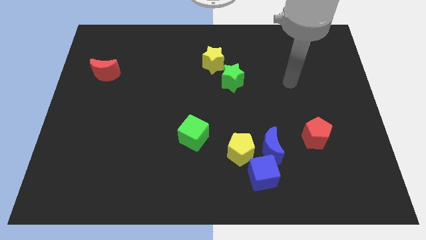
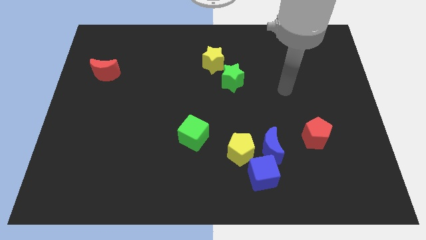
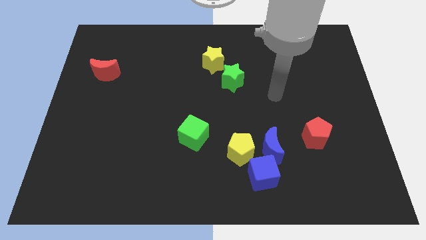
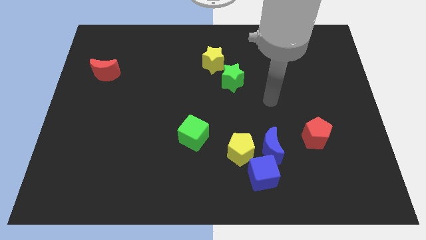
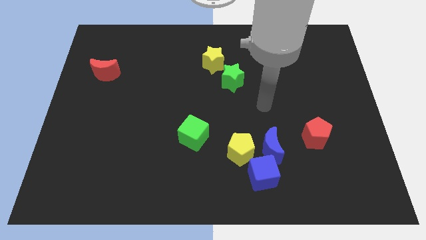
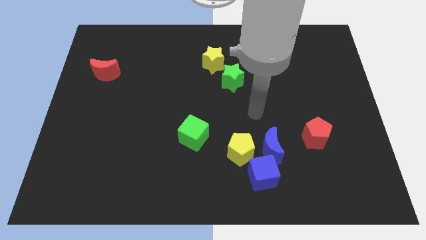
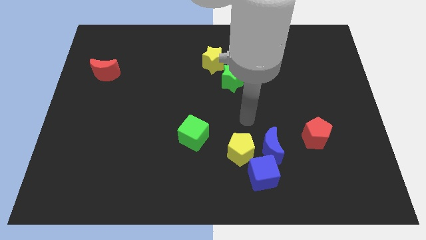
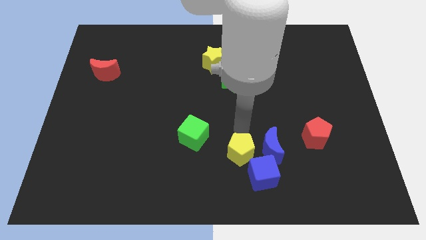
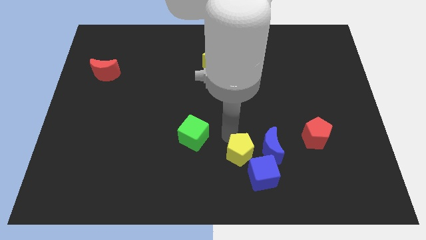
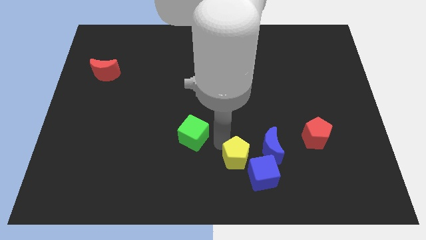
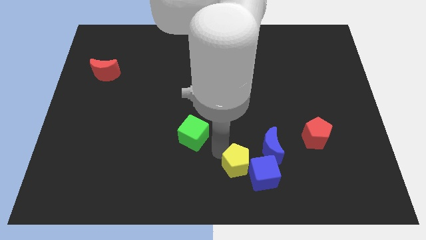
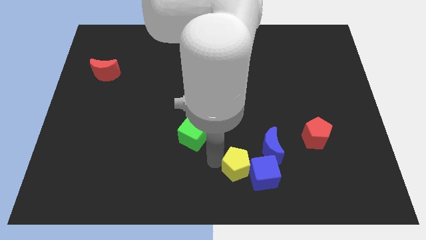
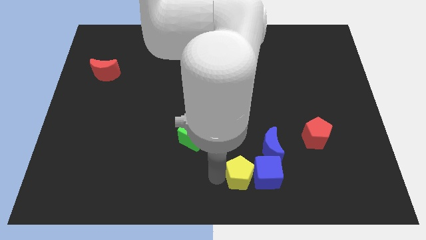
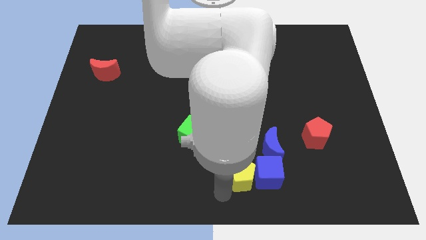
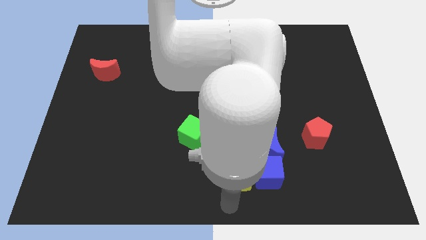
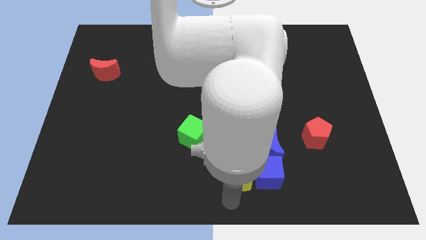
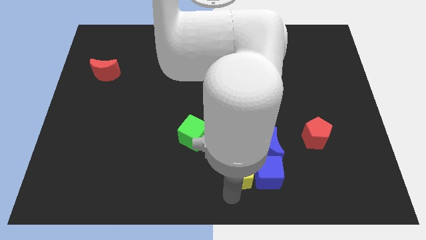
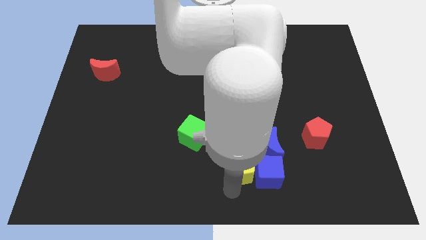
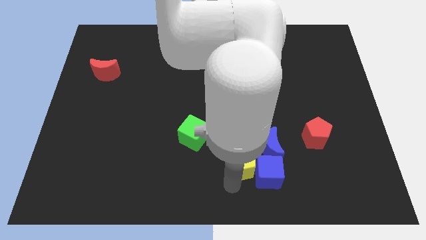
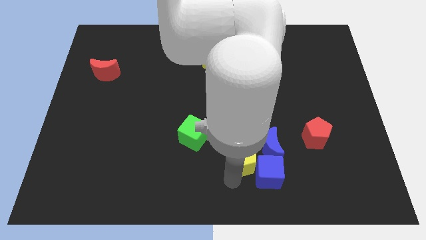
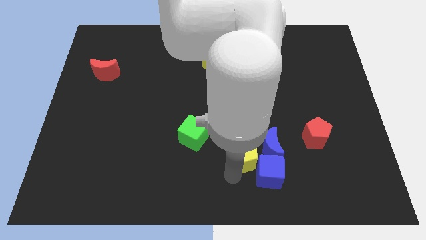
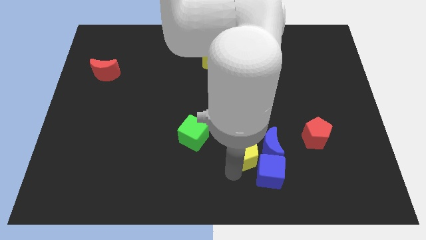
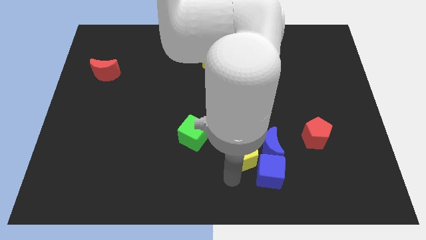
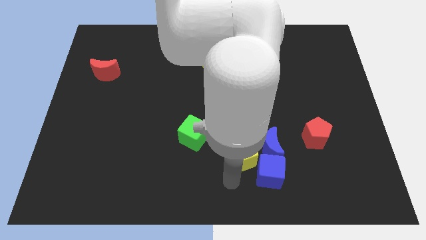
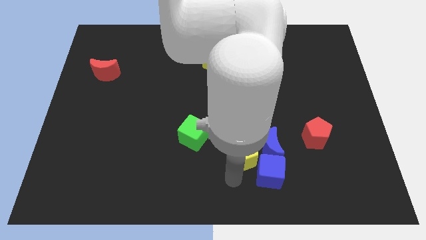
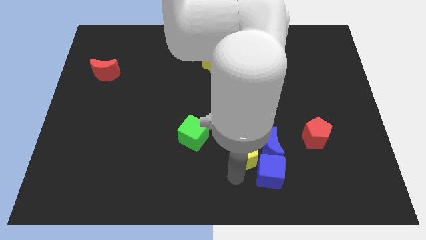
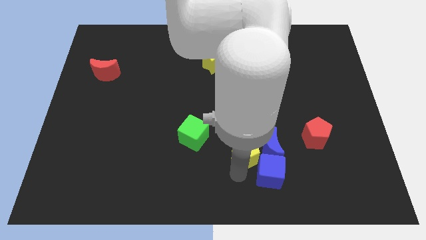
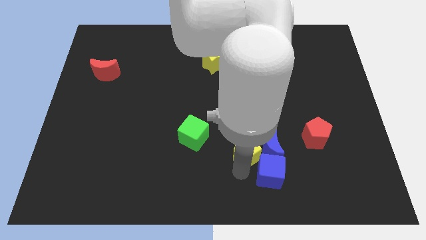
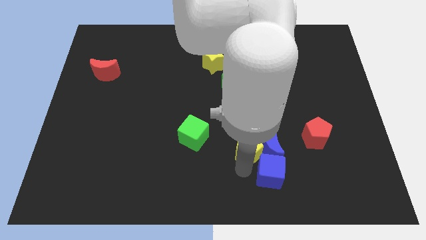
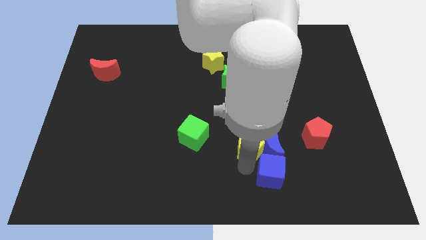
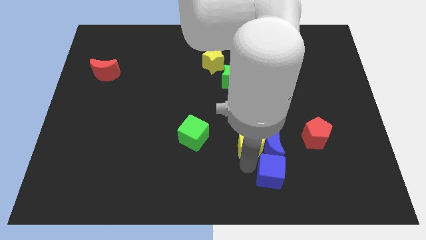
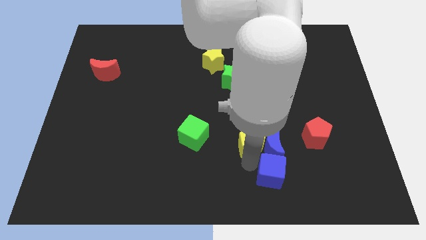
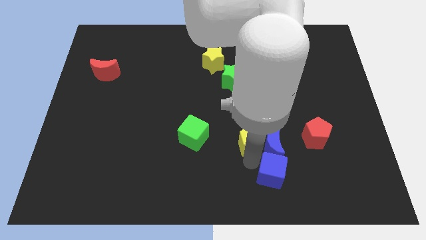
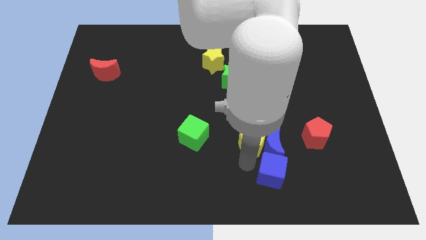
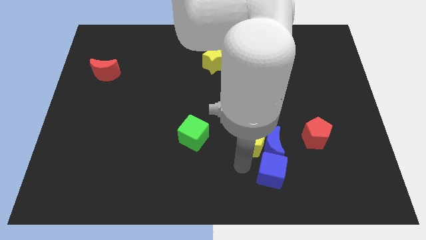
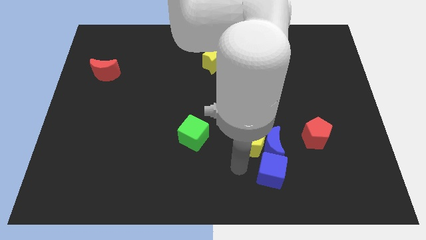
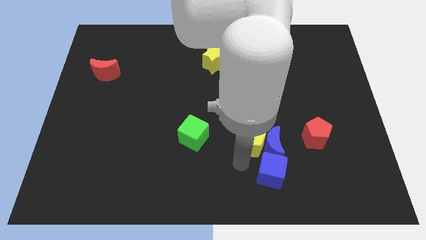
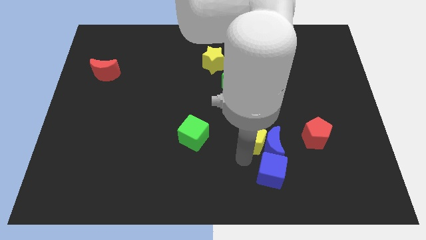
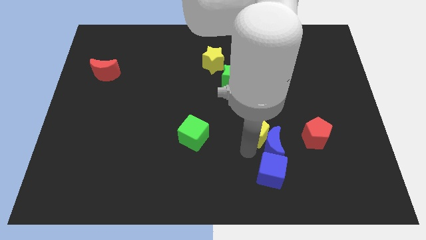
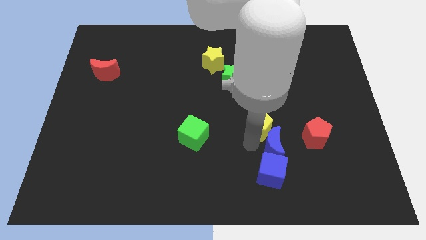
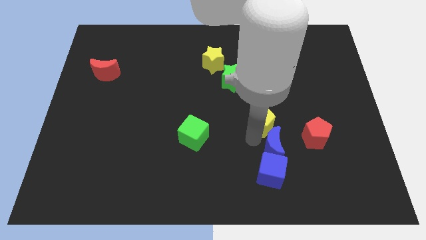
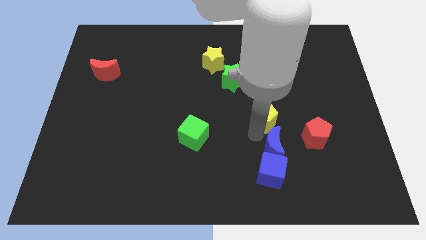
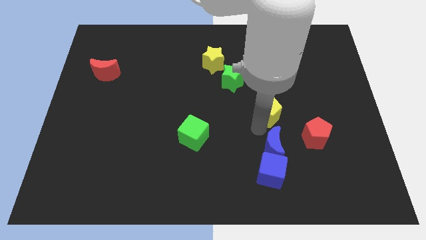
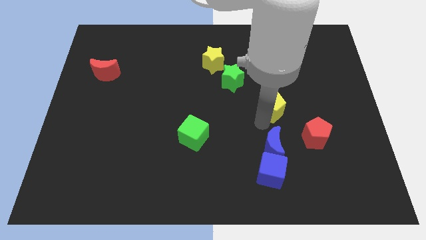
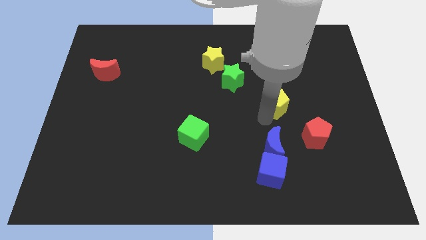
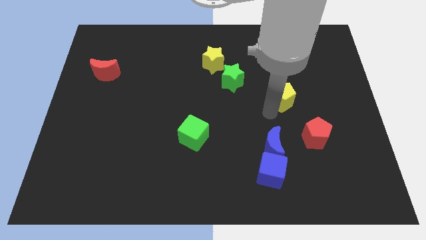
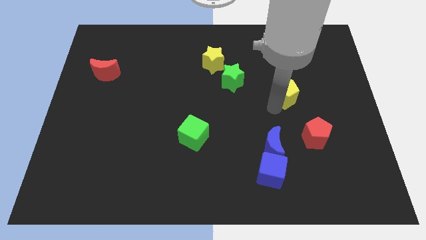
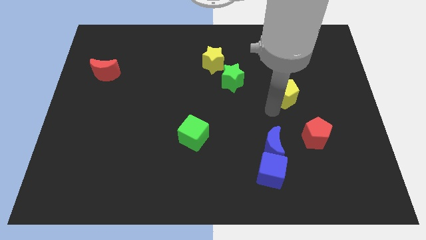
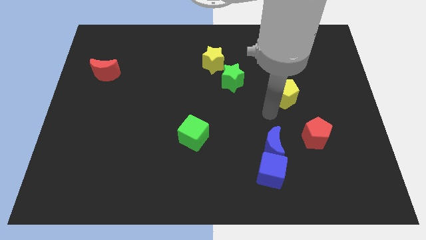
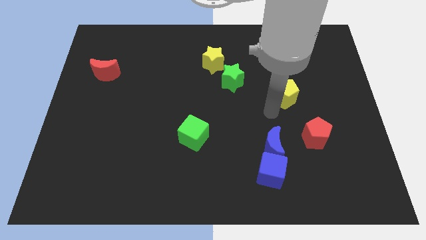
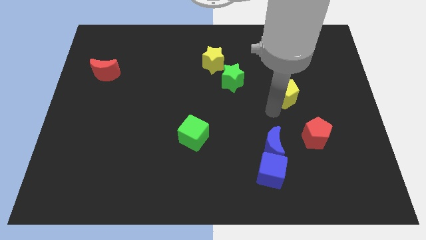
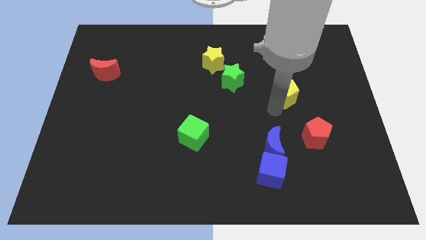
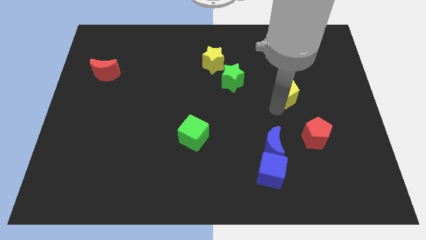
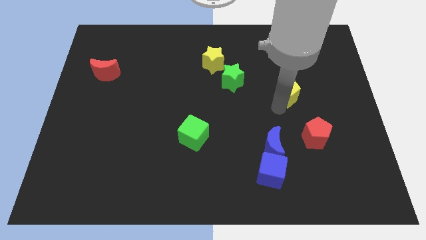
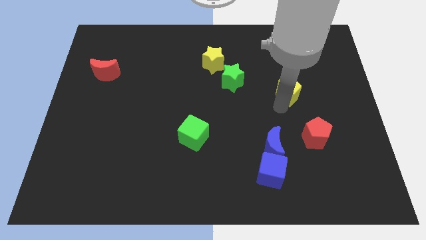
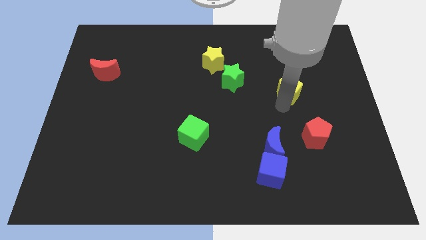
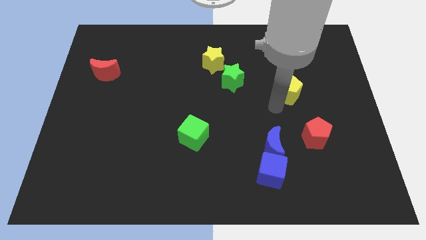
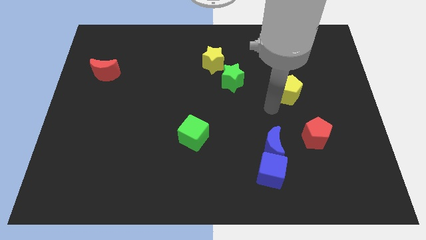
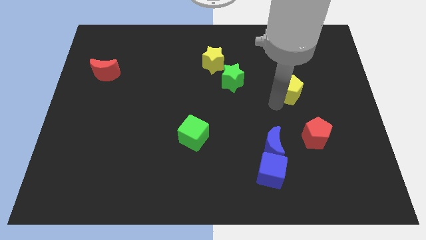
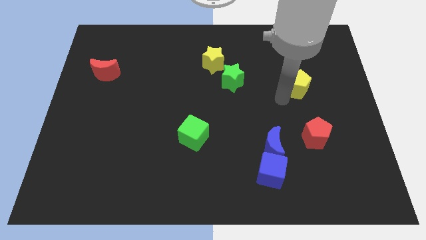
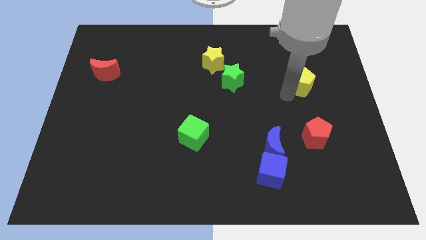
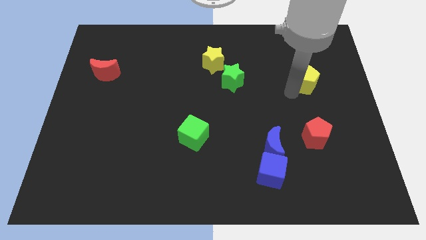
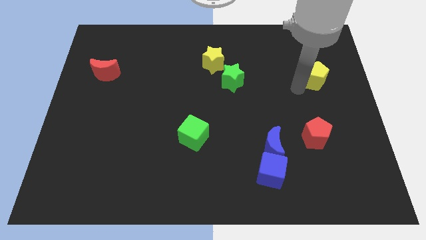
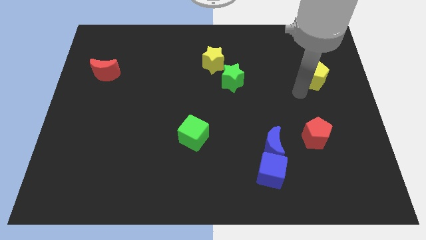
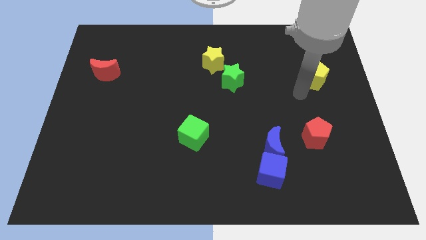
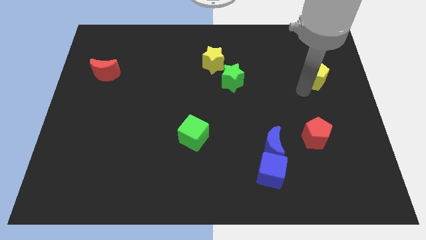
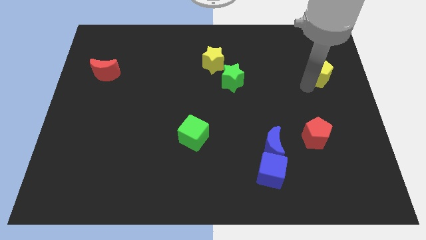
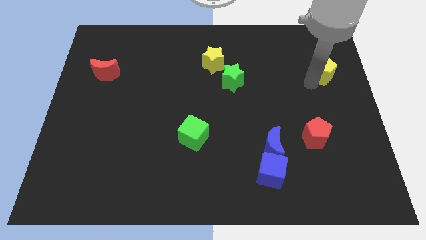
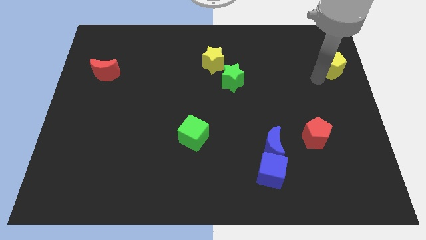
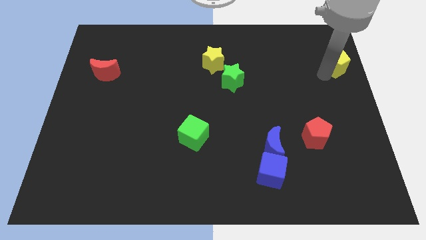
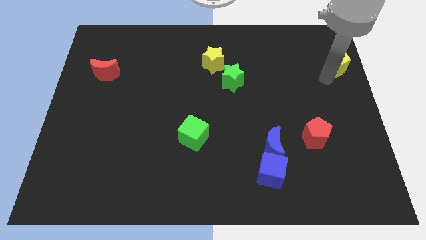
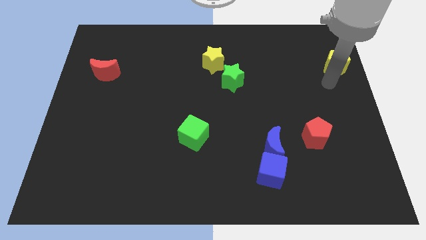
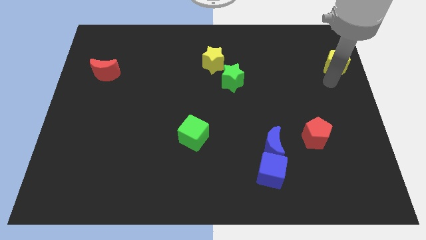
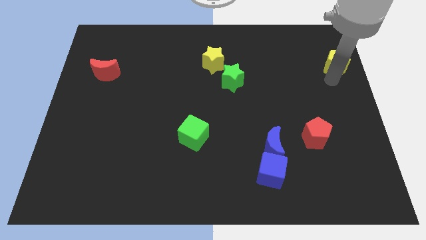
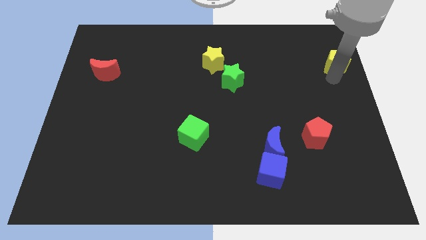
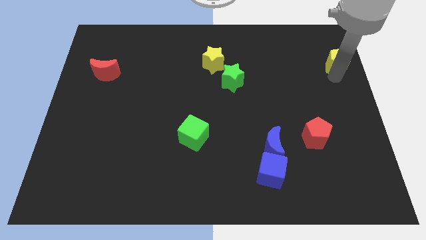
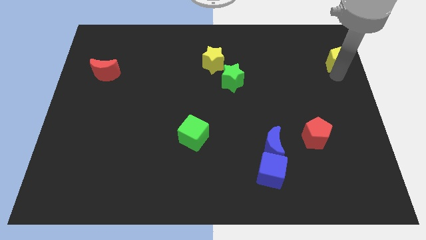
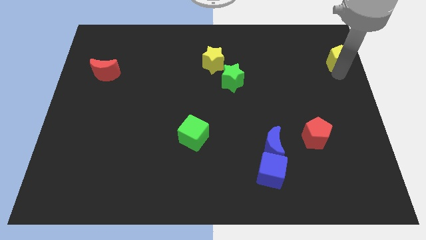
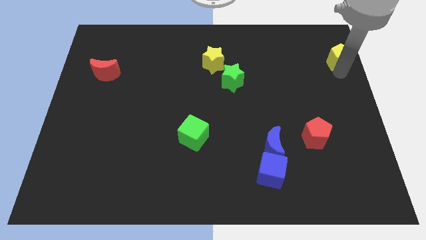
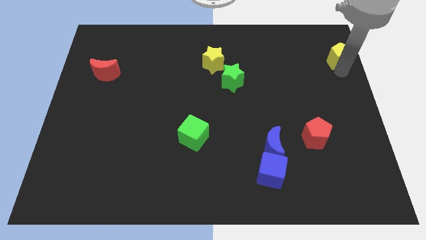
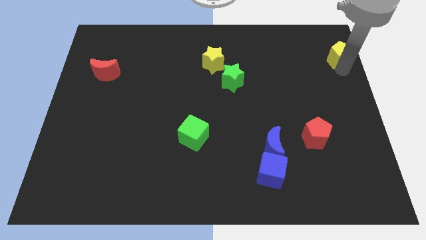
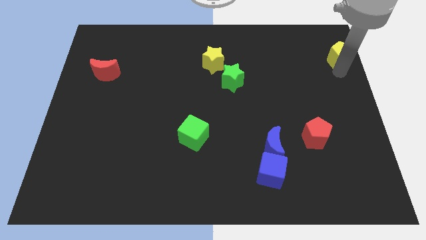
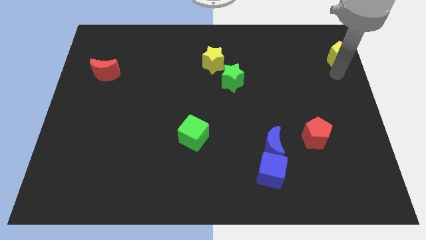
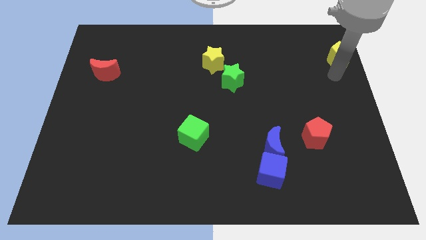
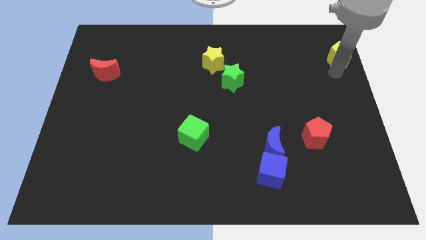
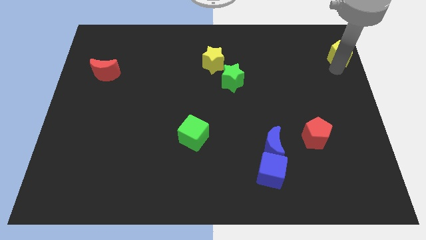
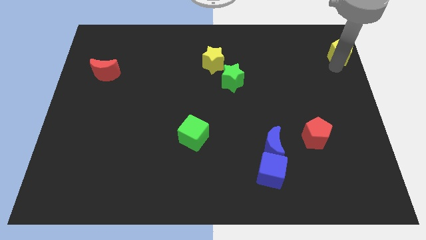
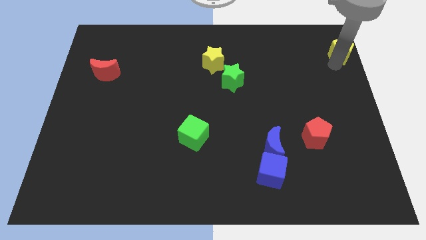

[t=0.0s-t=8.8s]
slide the yellow pentagon to the top right
